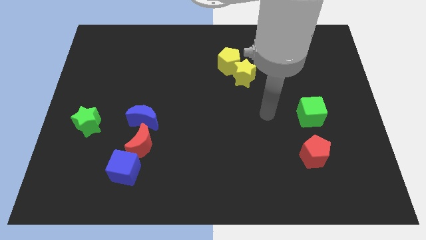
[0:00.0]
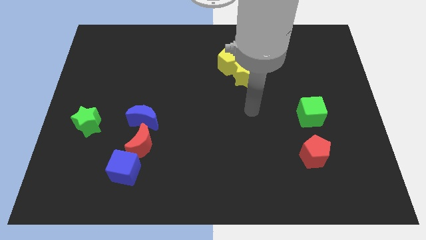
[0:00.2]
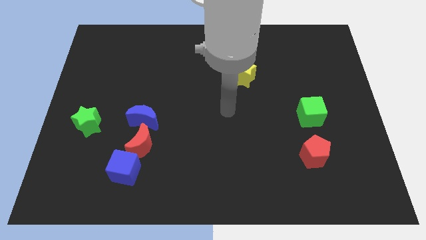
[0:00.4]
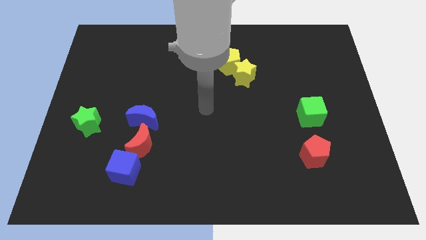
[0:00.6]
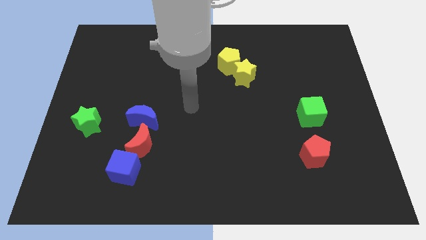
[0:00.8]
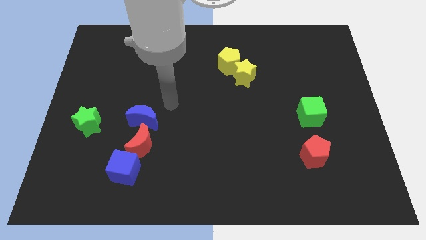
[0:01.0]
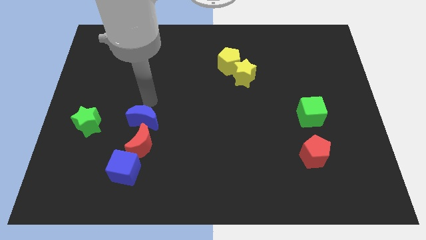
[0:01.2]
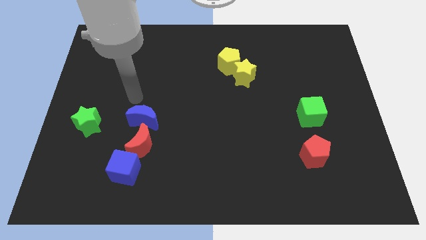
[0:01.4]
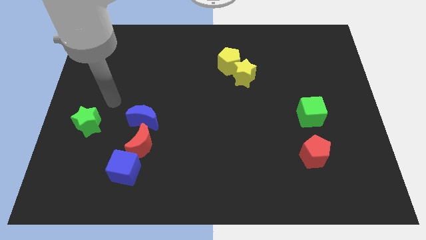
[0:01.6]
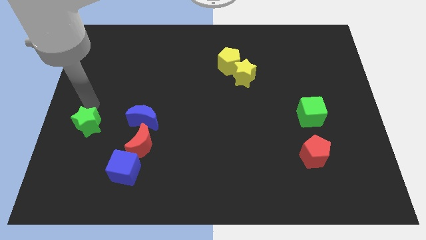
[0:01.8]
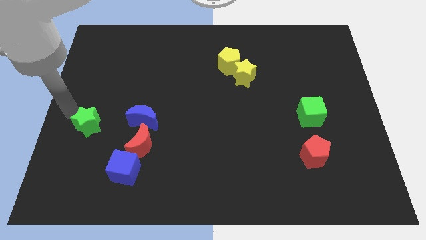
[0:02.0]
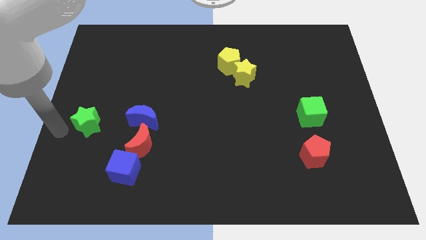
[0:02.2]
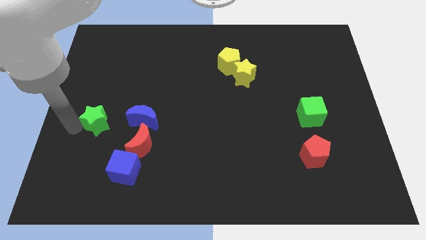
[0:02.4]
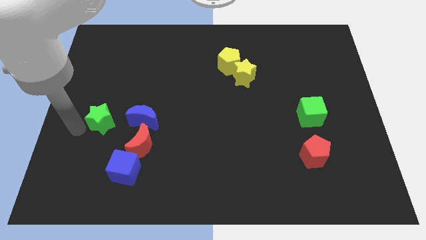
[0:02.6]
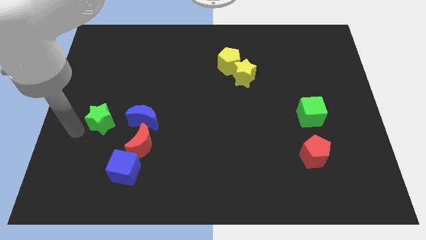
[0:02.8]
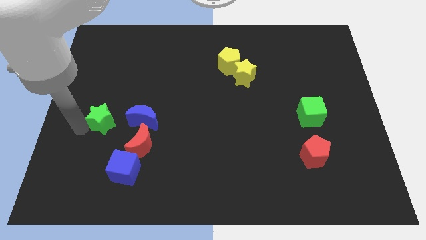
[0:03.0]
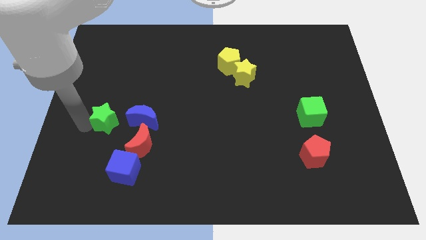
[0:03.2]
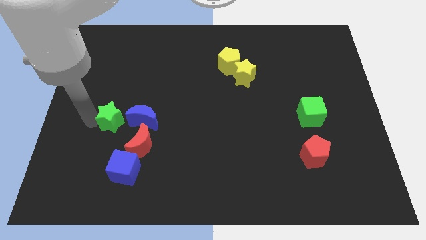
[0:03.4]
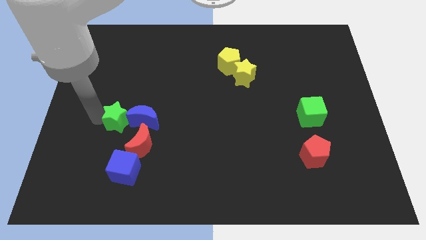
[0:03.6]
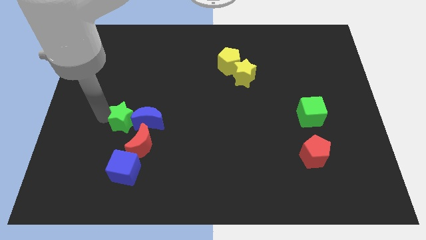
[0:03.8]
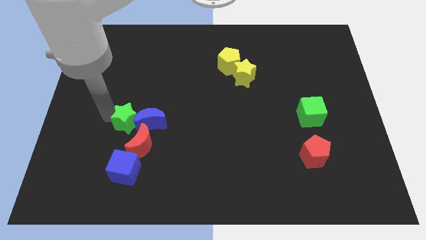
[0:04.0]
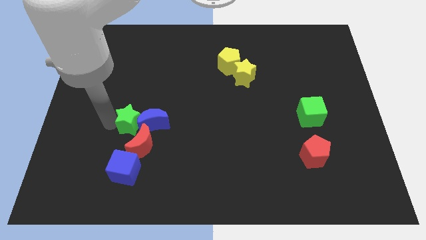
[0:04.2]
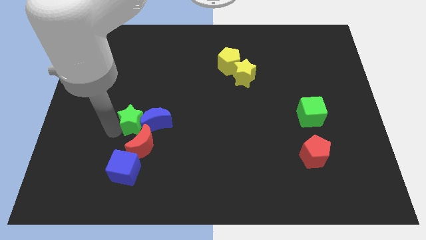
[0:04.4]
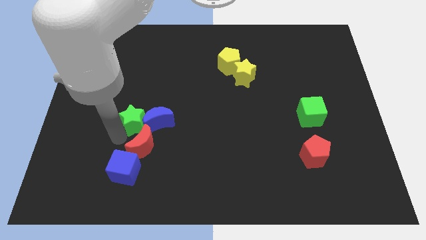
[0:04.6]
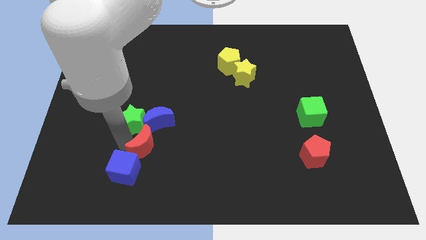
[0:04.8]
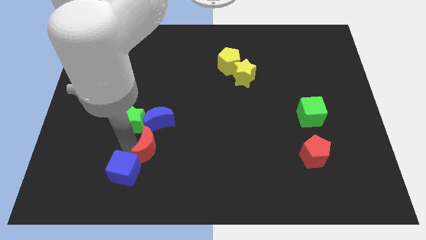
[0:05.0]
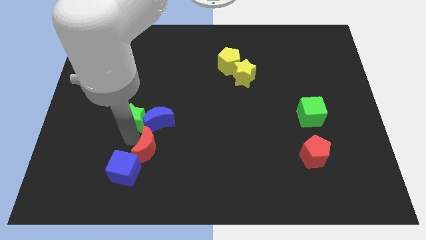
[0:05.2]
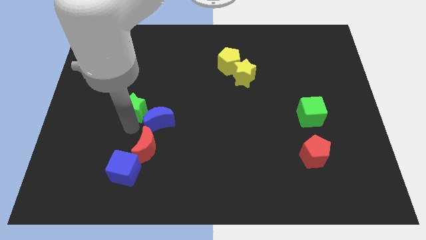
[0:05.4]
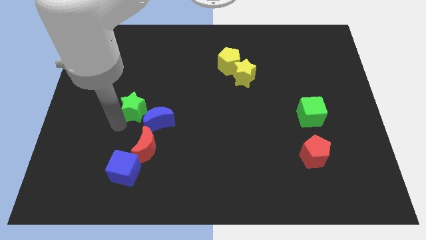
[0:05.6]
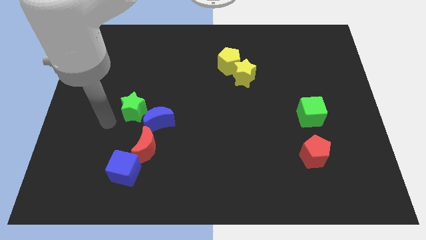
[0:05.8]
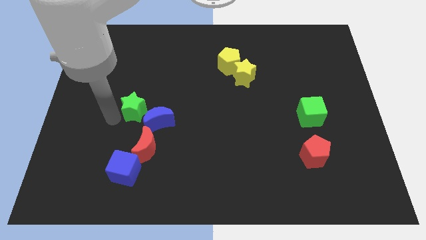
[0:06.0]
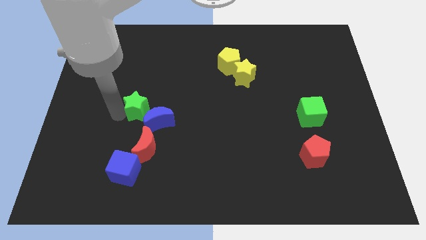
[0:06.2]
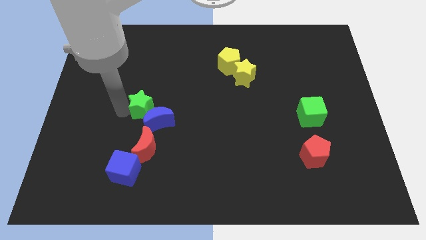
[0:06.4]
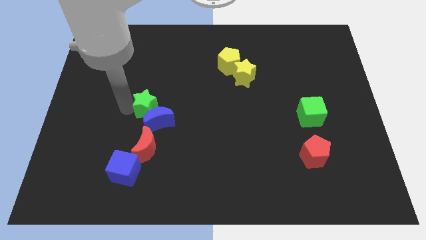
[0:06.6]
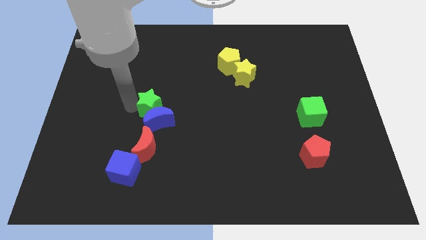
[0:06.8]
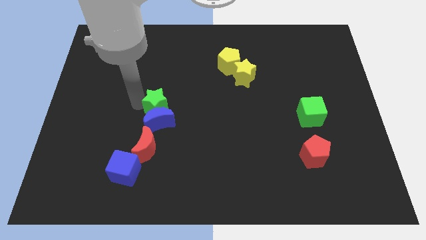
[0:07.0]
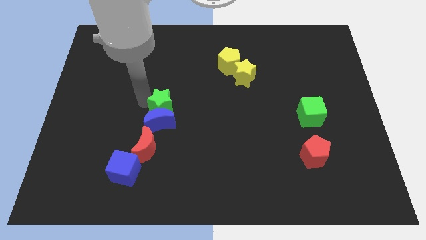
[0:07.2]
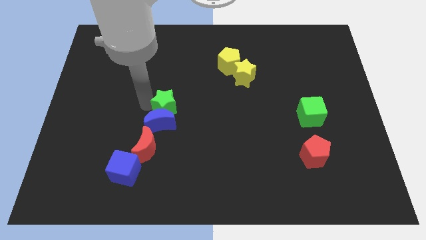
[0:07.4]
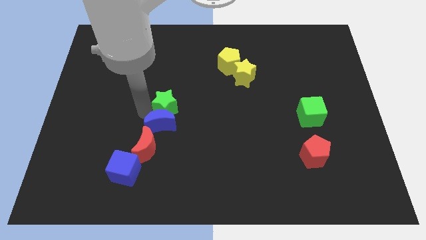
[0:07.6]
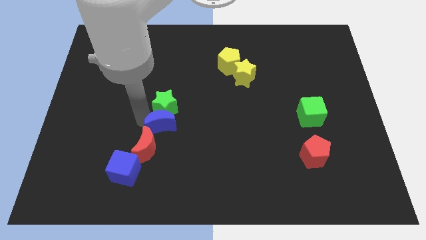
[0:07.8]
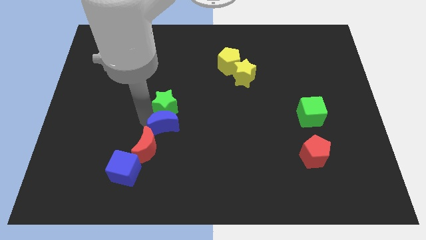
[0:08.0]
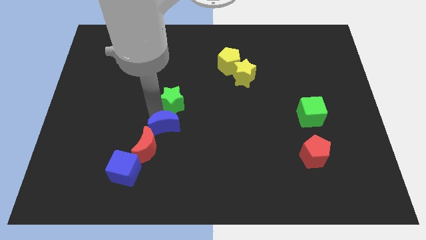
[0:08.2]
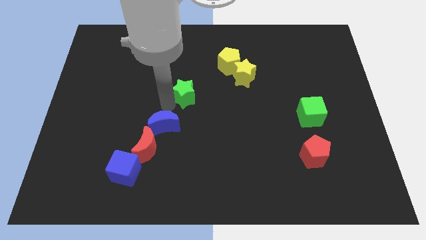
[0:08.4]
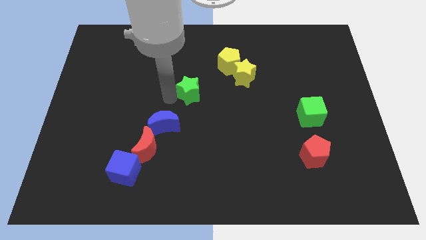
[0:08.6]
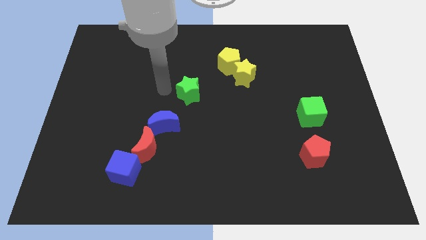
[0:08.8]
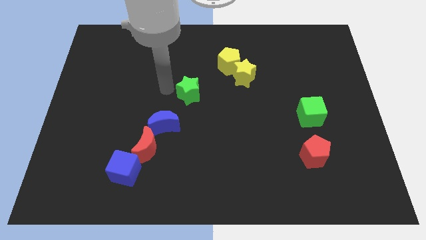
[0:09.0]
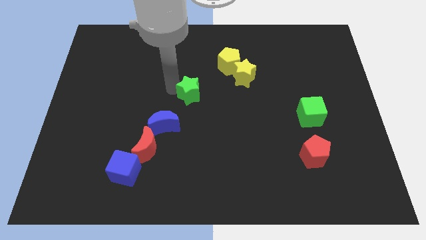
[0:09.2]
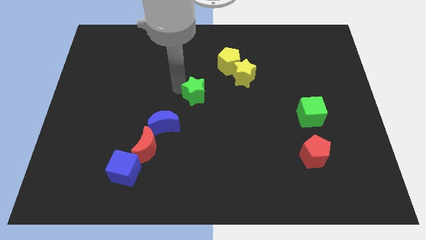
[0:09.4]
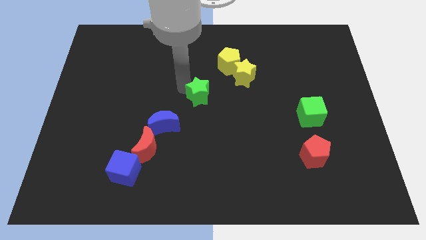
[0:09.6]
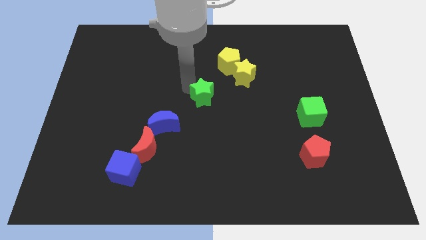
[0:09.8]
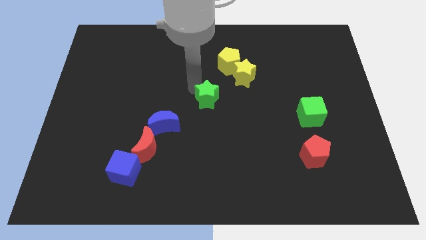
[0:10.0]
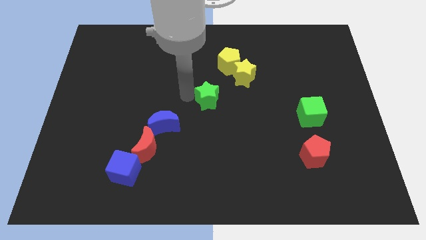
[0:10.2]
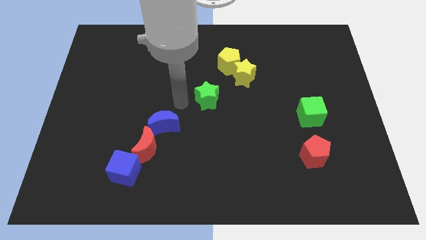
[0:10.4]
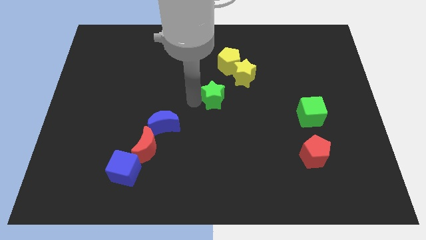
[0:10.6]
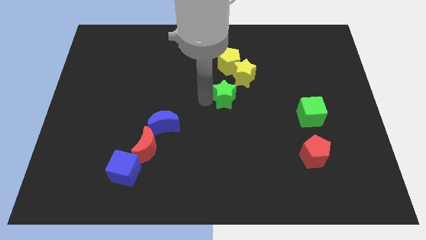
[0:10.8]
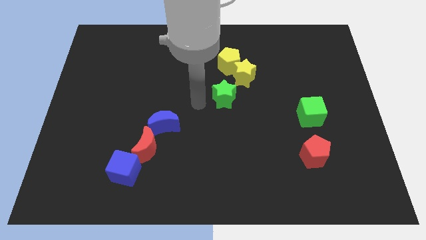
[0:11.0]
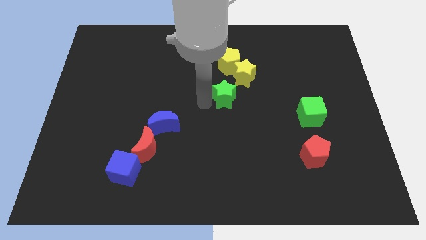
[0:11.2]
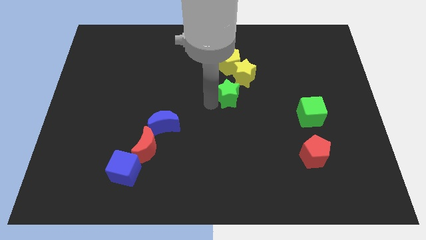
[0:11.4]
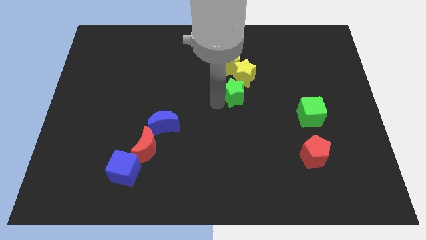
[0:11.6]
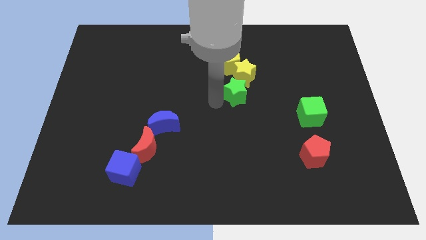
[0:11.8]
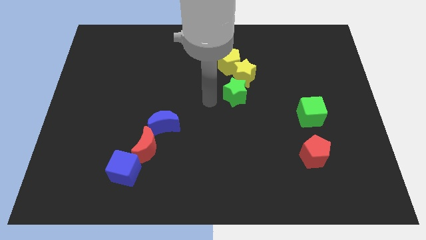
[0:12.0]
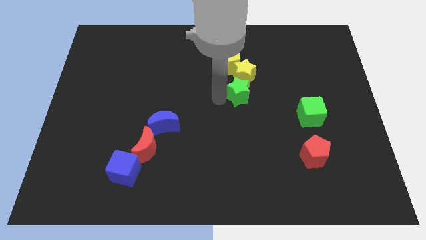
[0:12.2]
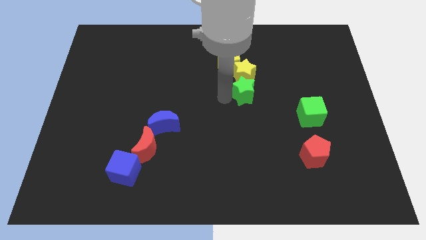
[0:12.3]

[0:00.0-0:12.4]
put the green star to the bottom right side of the yellow pentagon

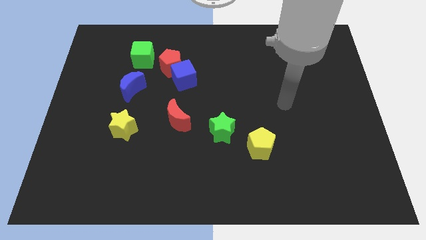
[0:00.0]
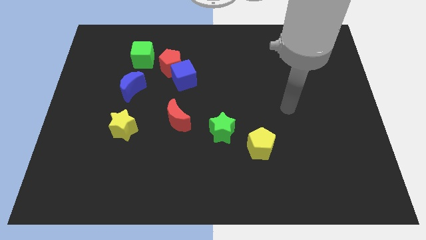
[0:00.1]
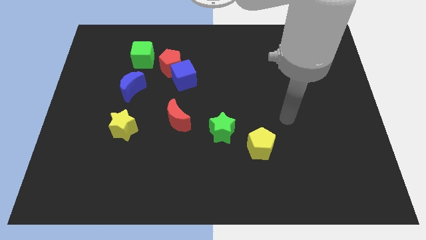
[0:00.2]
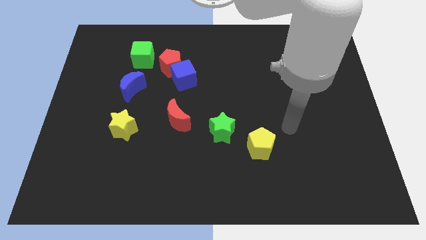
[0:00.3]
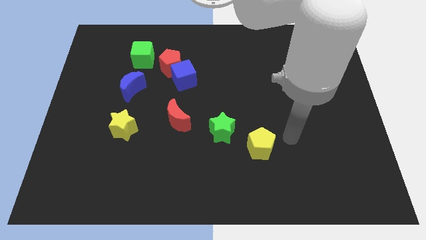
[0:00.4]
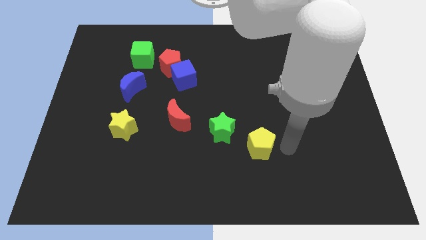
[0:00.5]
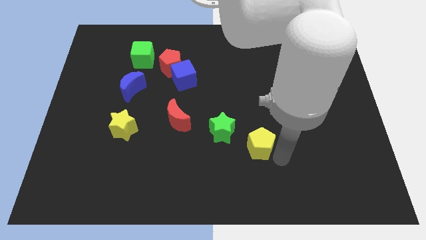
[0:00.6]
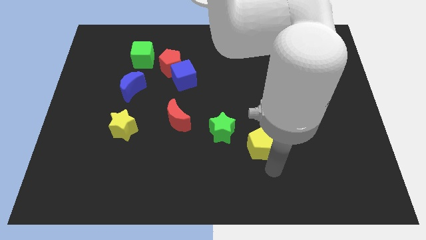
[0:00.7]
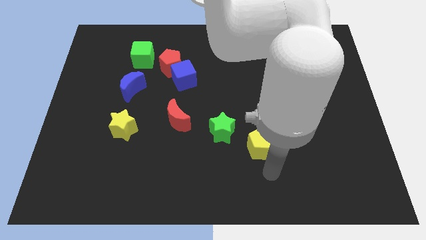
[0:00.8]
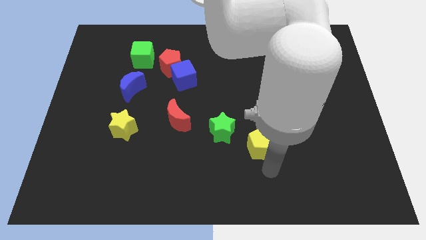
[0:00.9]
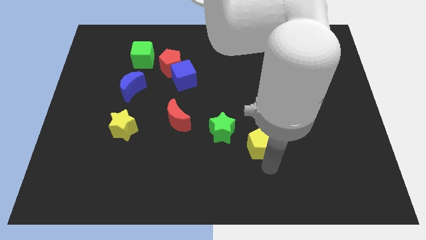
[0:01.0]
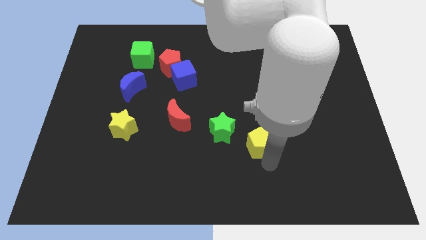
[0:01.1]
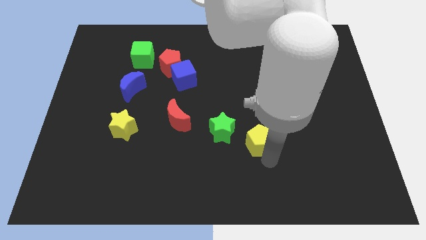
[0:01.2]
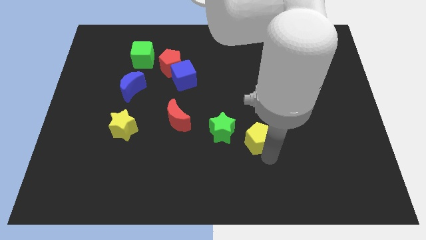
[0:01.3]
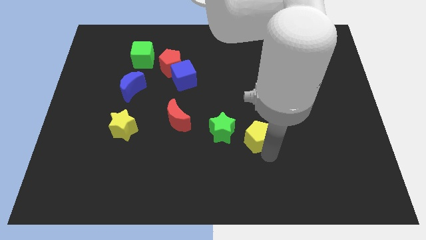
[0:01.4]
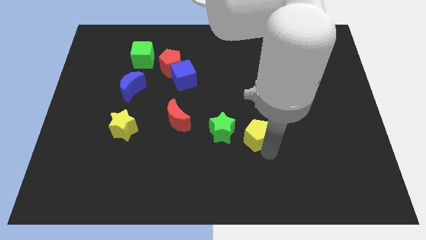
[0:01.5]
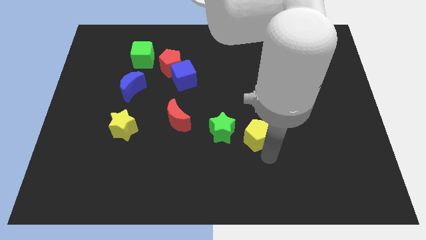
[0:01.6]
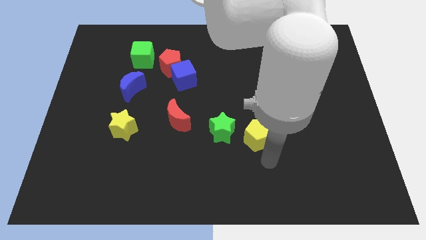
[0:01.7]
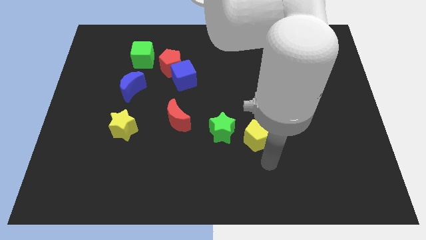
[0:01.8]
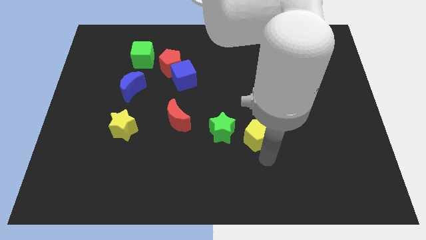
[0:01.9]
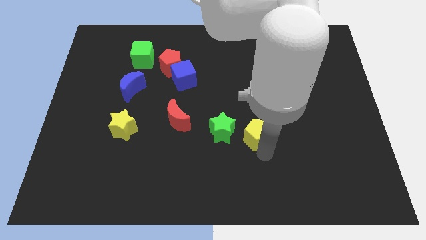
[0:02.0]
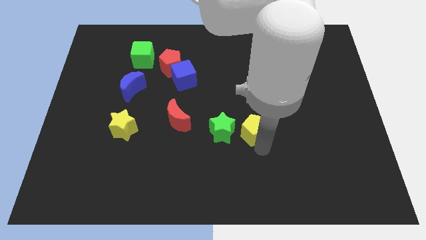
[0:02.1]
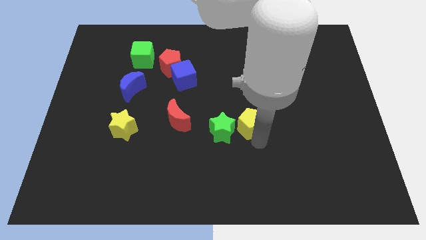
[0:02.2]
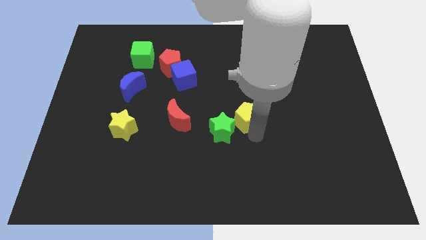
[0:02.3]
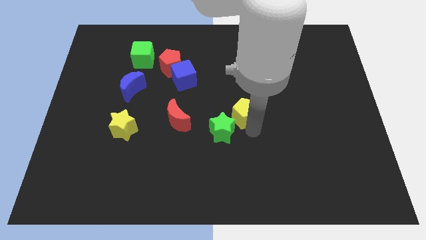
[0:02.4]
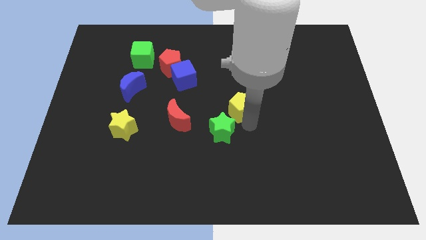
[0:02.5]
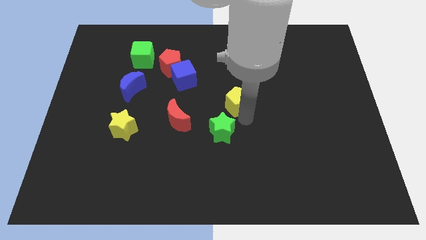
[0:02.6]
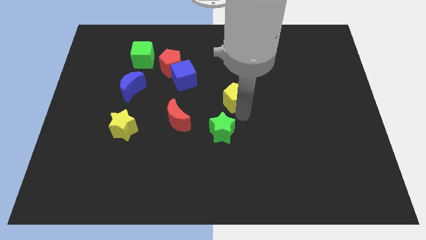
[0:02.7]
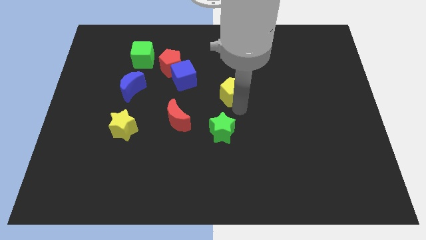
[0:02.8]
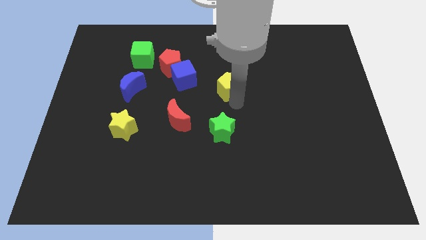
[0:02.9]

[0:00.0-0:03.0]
move the yellow pentagon just right of the blue cube
